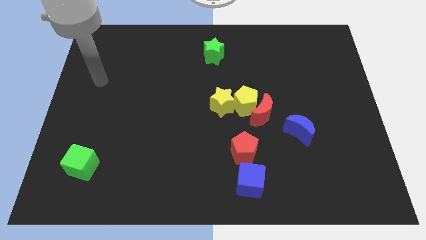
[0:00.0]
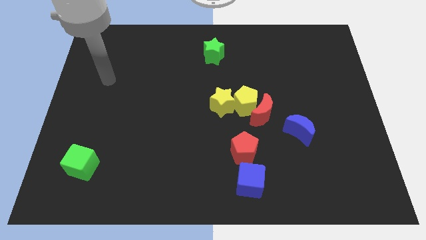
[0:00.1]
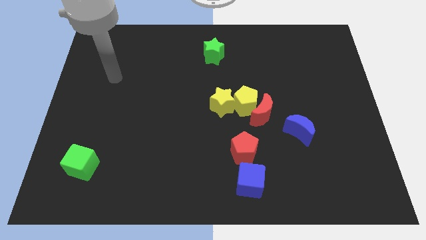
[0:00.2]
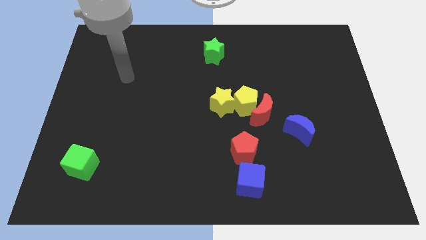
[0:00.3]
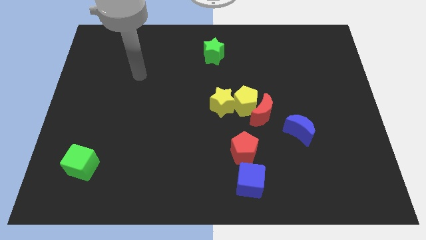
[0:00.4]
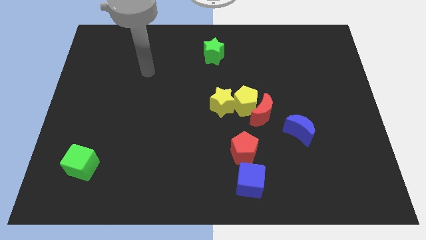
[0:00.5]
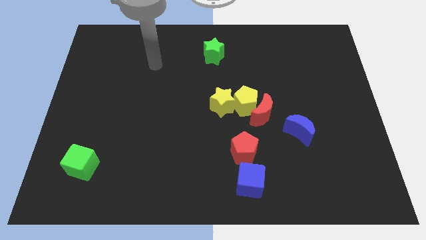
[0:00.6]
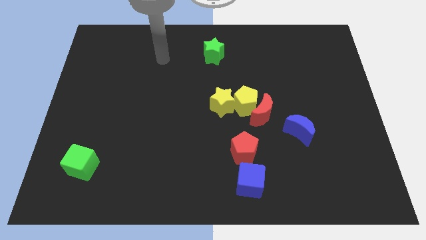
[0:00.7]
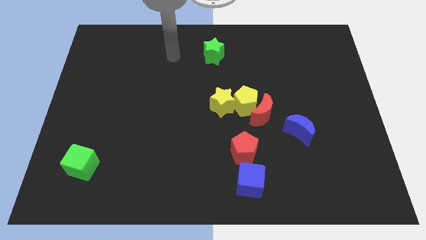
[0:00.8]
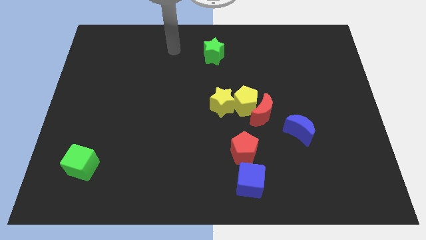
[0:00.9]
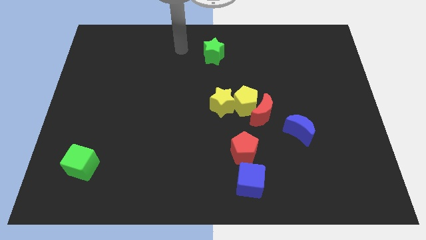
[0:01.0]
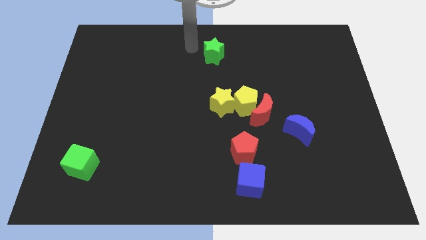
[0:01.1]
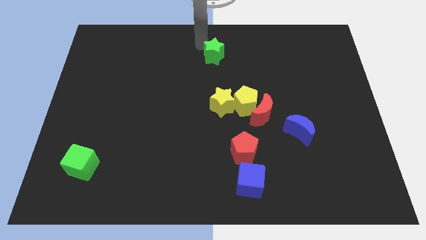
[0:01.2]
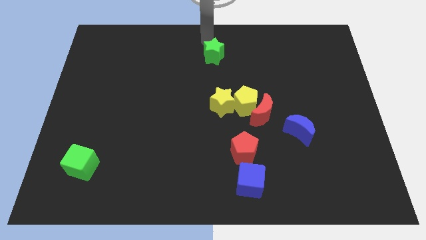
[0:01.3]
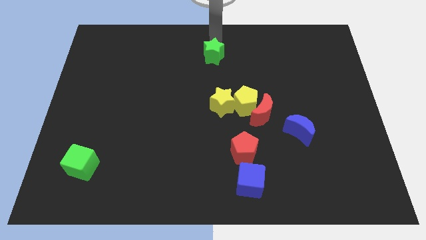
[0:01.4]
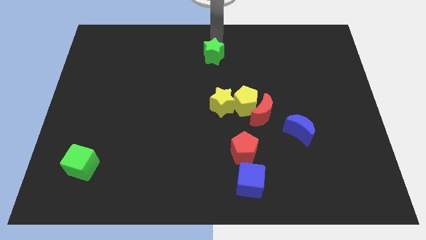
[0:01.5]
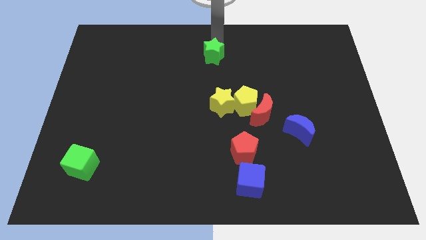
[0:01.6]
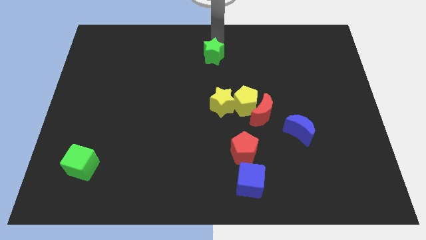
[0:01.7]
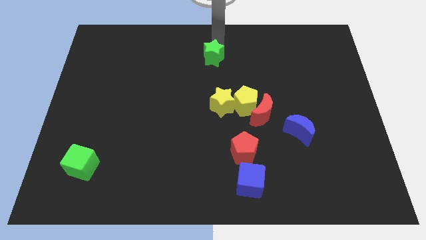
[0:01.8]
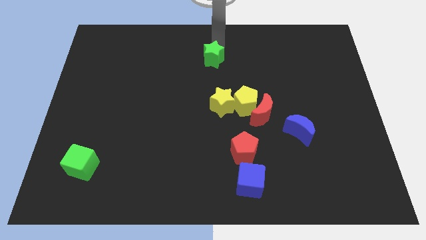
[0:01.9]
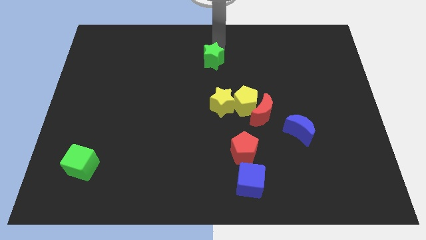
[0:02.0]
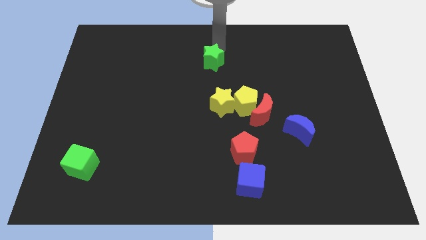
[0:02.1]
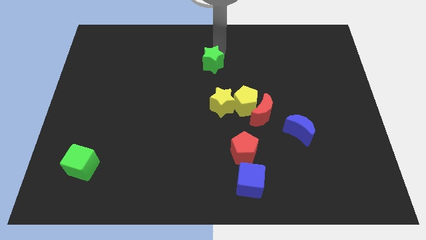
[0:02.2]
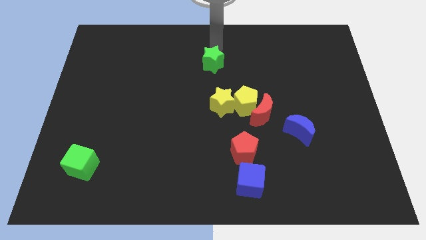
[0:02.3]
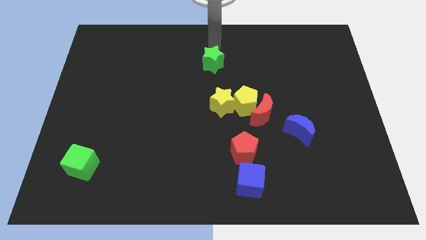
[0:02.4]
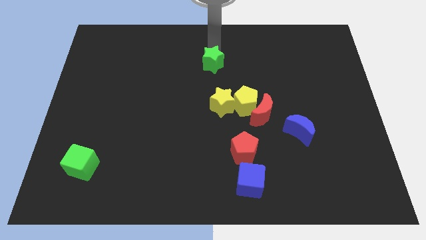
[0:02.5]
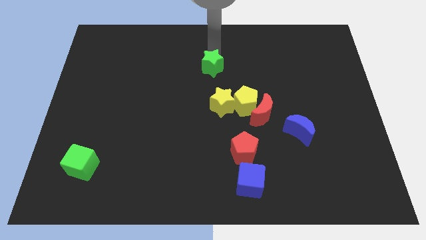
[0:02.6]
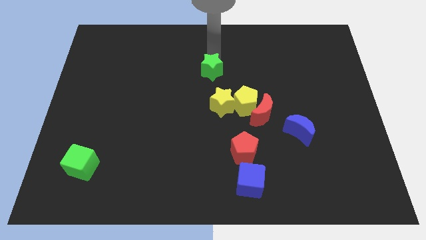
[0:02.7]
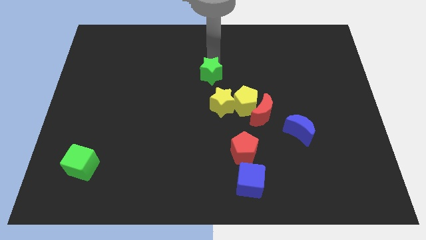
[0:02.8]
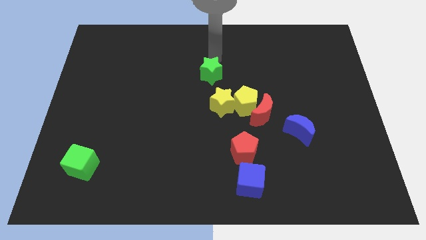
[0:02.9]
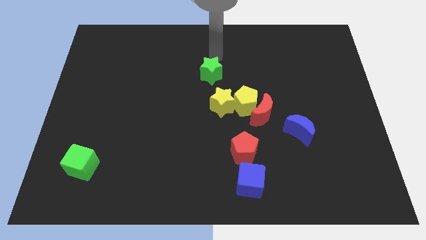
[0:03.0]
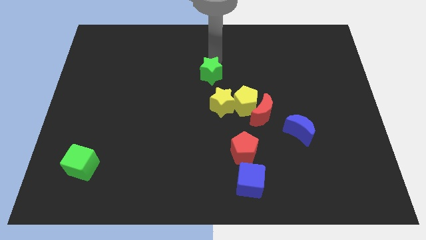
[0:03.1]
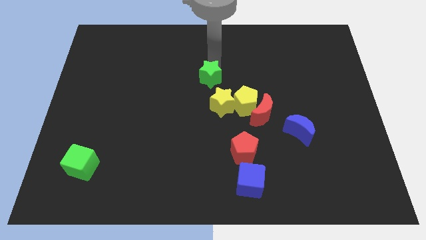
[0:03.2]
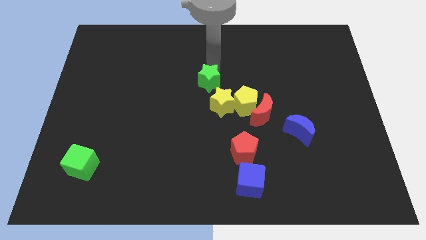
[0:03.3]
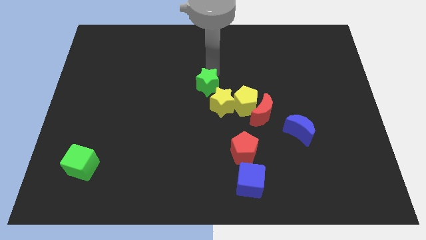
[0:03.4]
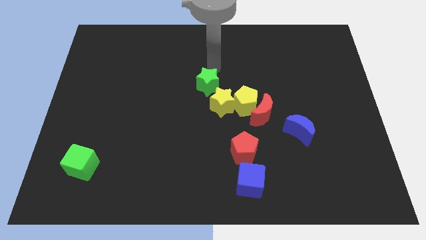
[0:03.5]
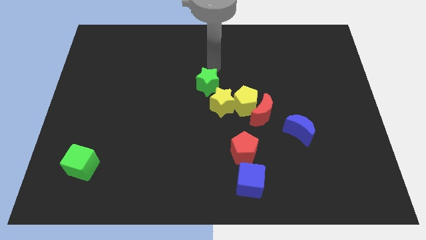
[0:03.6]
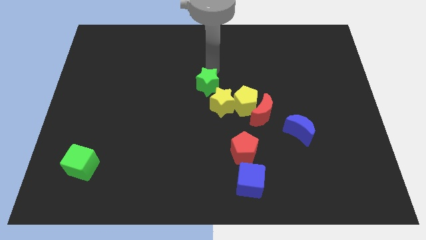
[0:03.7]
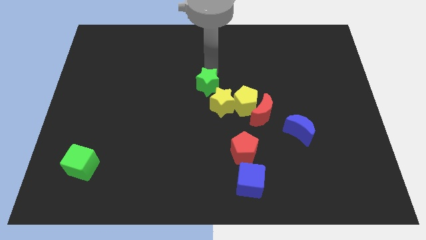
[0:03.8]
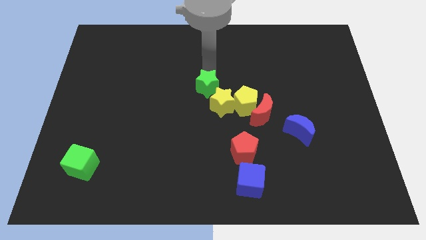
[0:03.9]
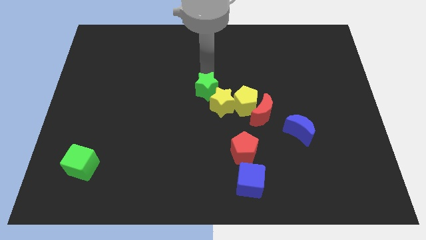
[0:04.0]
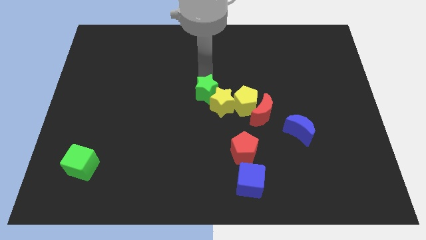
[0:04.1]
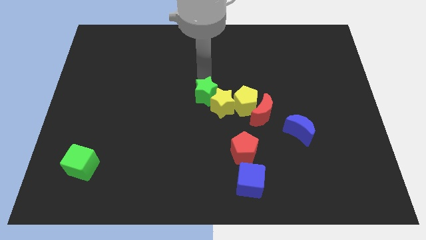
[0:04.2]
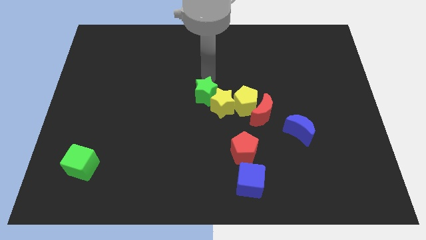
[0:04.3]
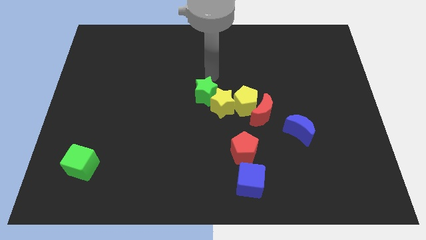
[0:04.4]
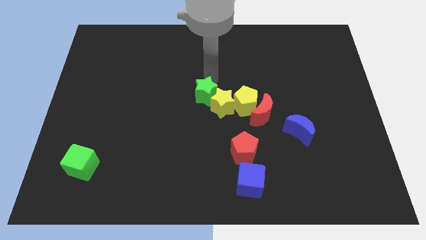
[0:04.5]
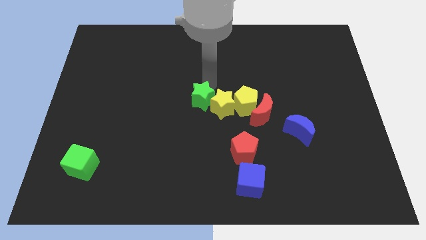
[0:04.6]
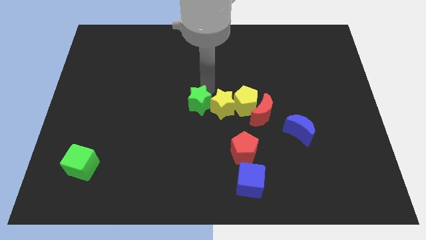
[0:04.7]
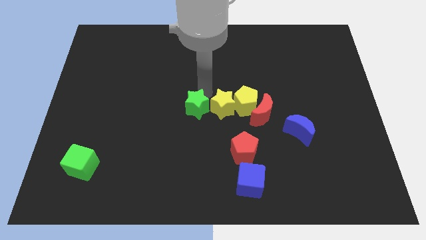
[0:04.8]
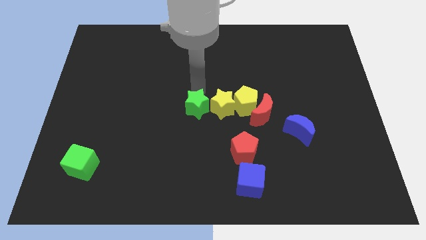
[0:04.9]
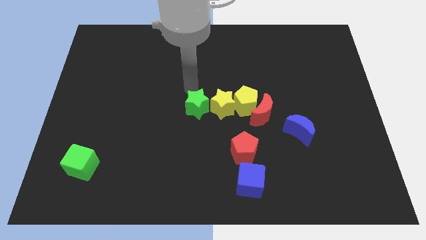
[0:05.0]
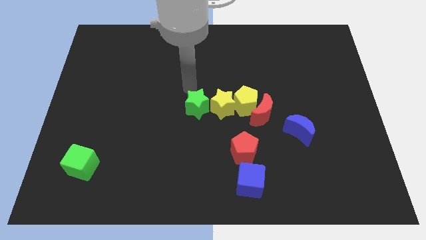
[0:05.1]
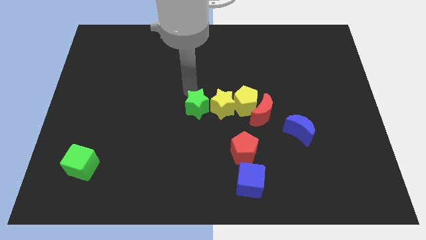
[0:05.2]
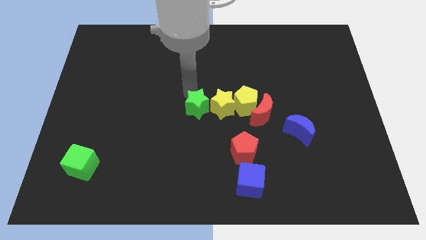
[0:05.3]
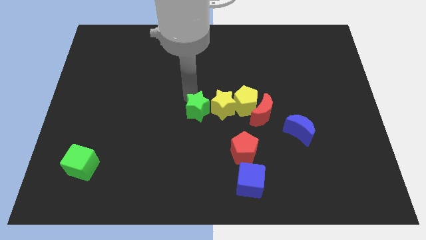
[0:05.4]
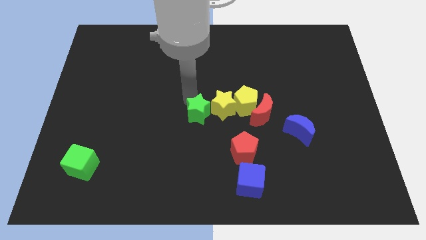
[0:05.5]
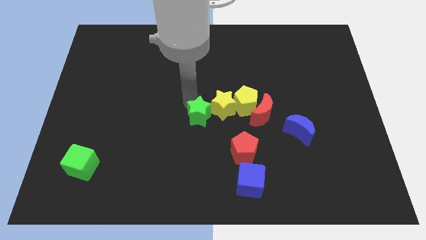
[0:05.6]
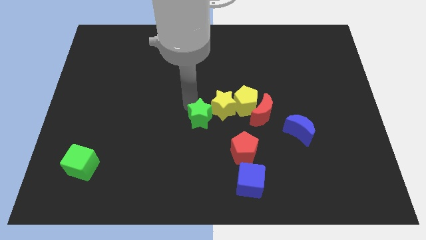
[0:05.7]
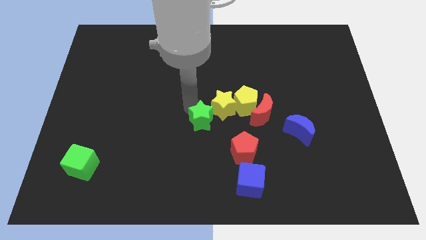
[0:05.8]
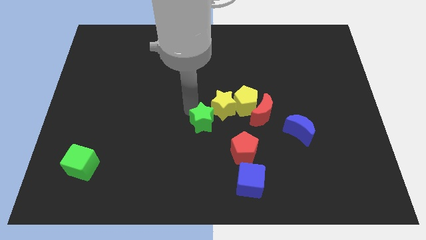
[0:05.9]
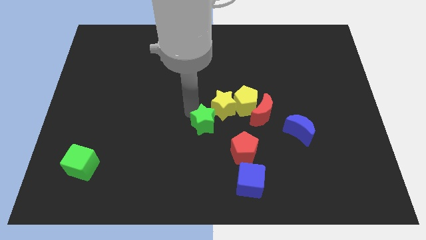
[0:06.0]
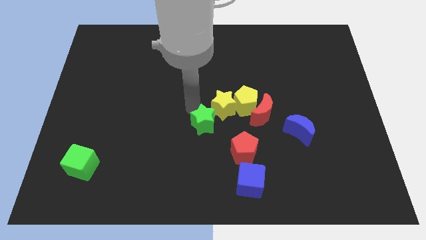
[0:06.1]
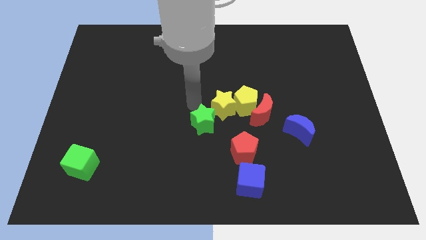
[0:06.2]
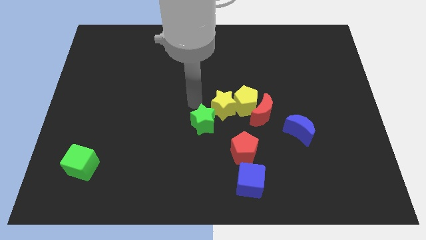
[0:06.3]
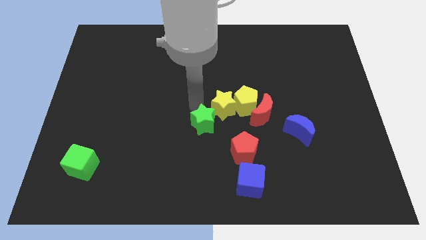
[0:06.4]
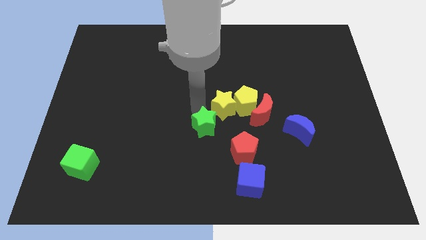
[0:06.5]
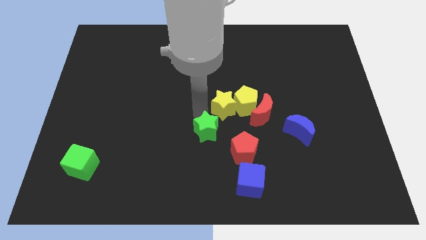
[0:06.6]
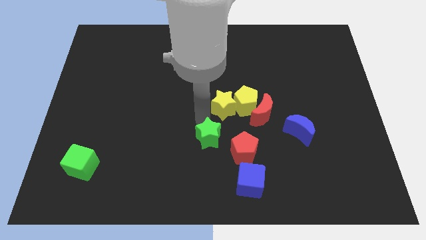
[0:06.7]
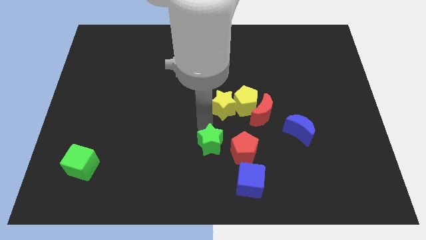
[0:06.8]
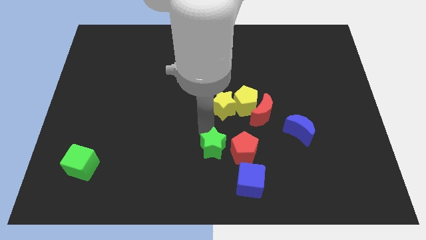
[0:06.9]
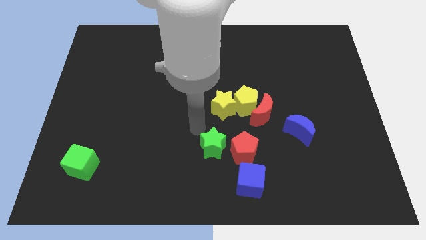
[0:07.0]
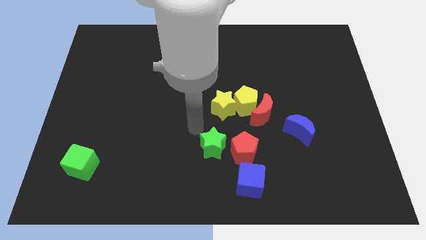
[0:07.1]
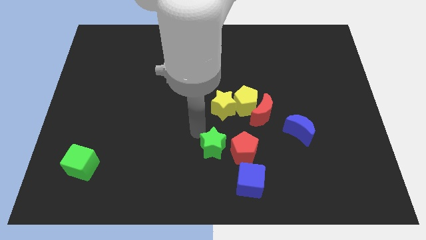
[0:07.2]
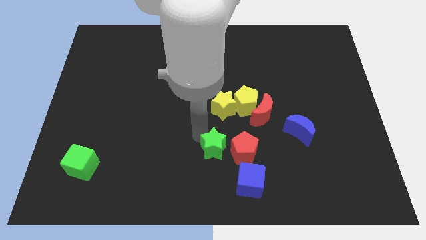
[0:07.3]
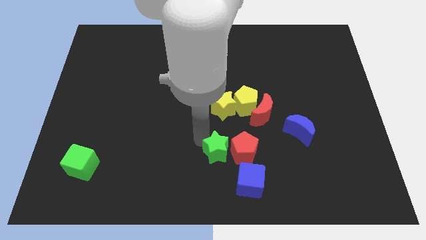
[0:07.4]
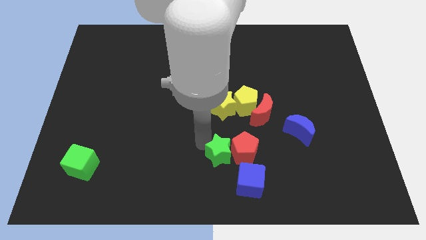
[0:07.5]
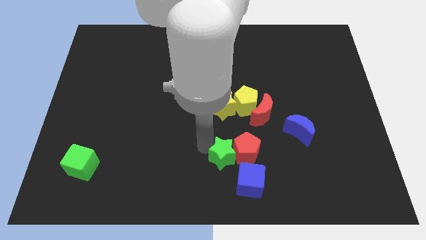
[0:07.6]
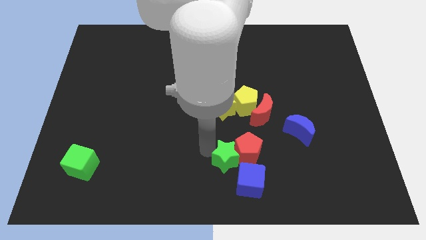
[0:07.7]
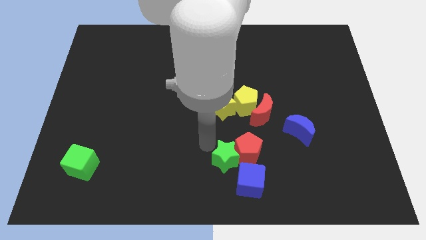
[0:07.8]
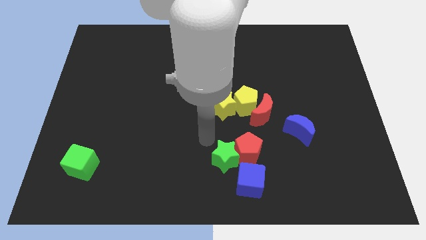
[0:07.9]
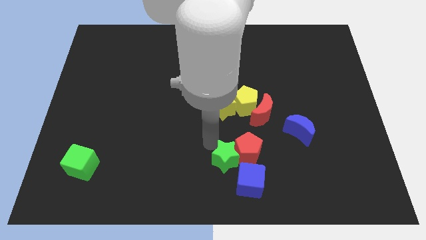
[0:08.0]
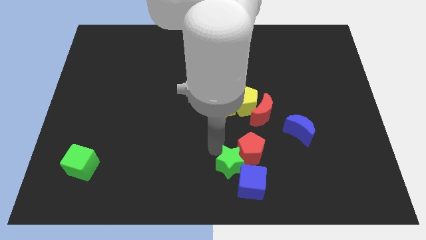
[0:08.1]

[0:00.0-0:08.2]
slide the green star close to the blue cube
